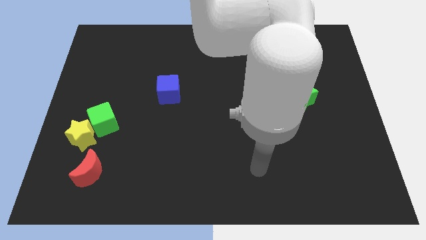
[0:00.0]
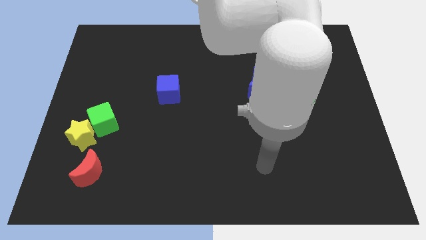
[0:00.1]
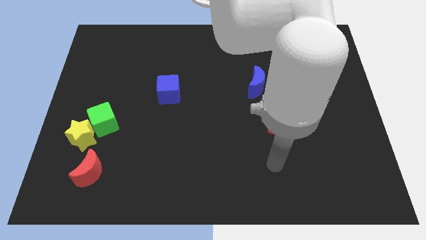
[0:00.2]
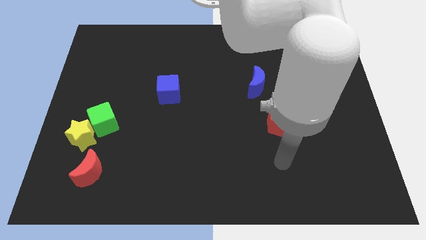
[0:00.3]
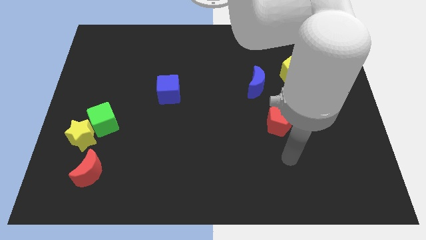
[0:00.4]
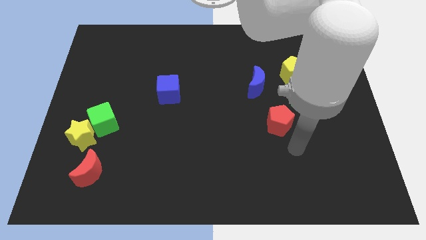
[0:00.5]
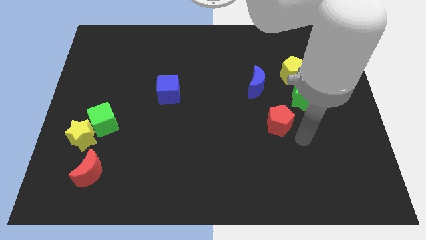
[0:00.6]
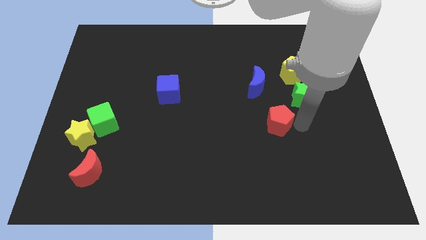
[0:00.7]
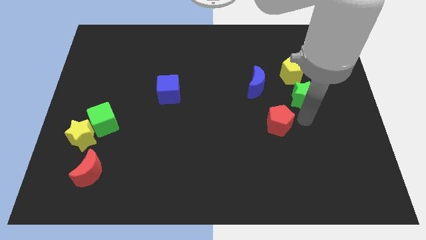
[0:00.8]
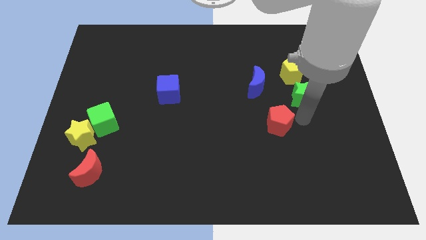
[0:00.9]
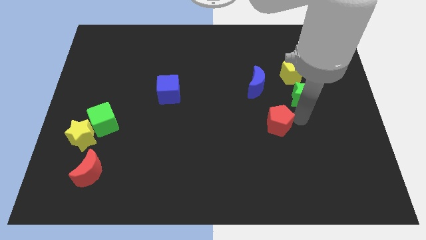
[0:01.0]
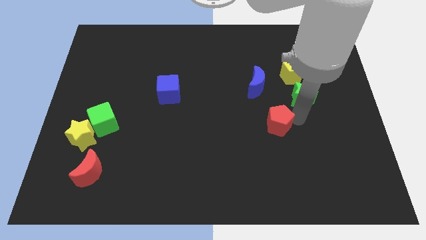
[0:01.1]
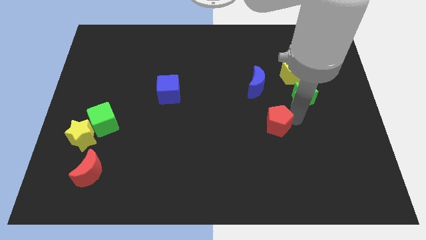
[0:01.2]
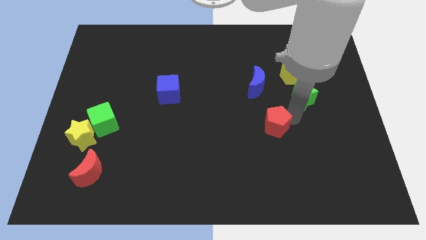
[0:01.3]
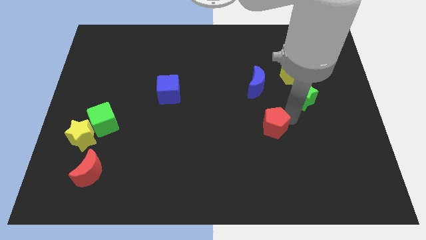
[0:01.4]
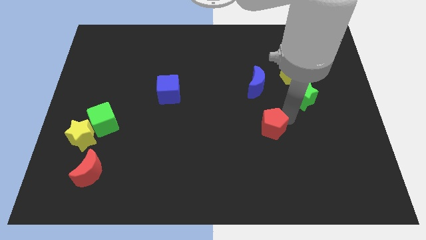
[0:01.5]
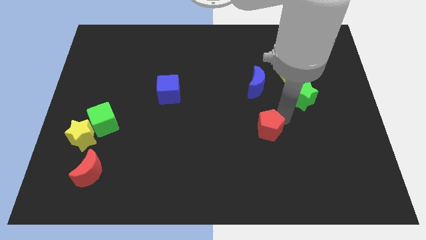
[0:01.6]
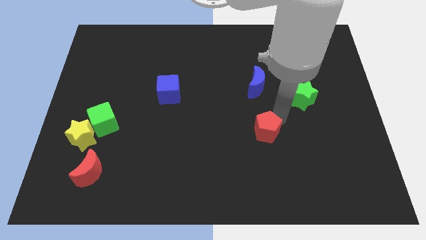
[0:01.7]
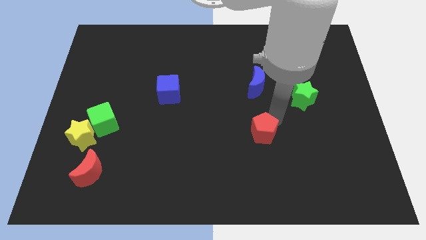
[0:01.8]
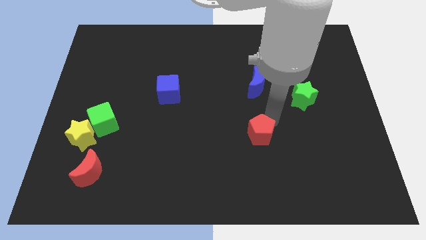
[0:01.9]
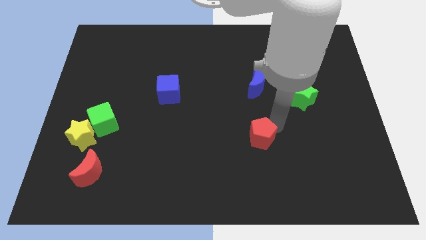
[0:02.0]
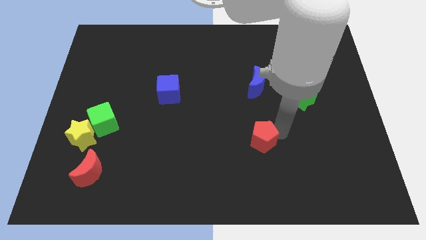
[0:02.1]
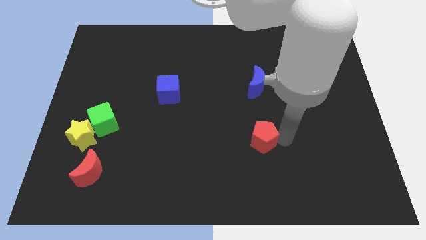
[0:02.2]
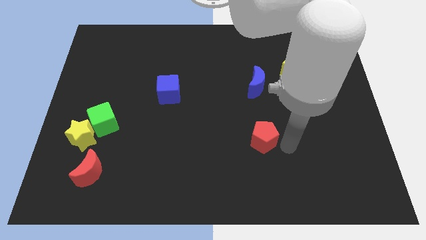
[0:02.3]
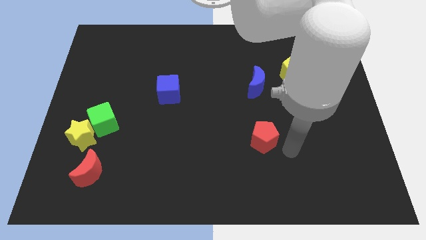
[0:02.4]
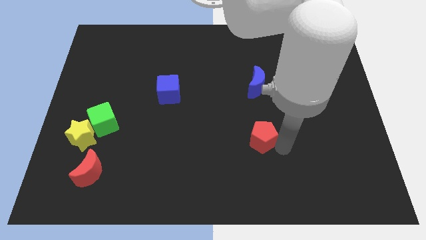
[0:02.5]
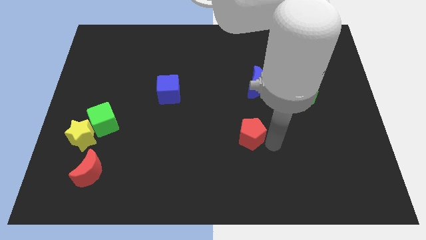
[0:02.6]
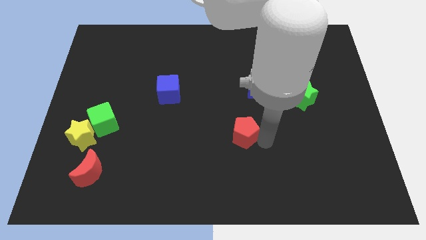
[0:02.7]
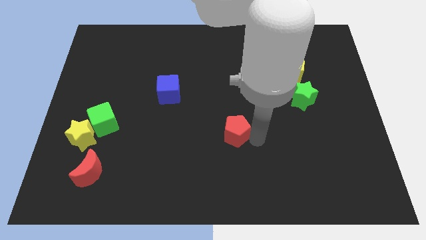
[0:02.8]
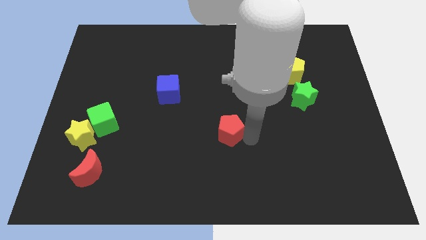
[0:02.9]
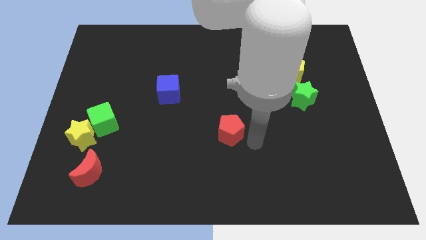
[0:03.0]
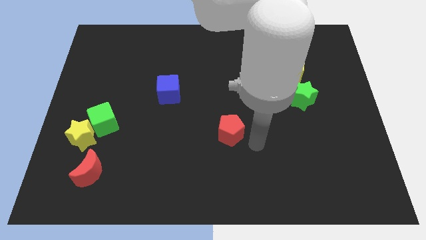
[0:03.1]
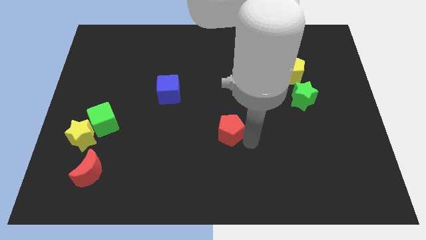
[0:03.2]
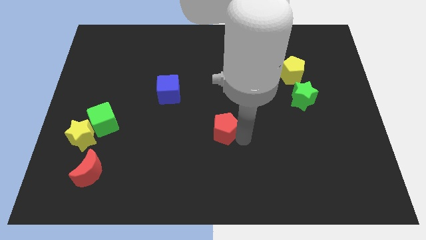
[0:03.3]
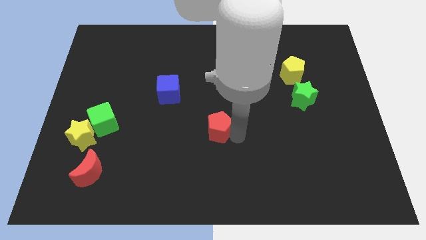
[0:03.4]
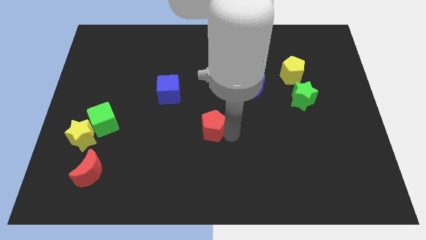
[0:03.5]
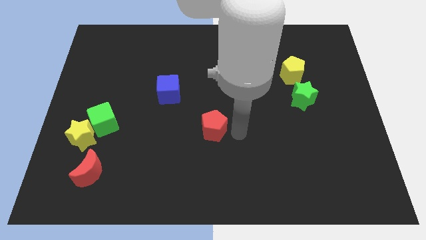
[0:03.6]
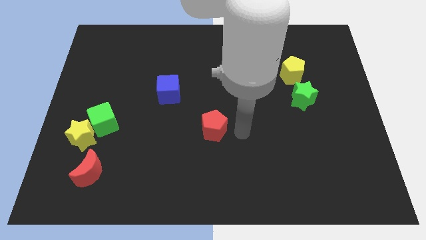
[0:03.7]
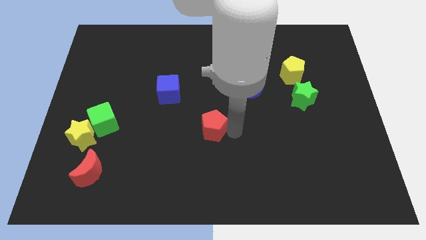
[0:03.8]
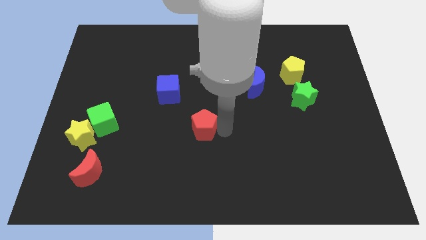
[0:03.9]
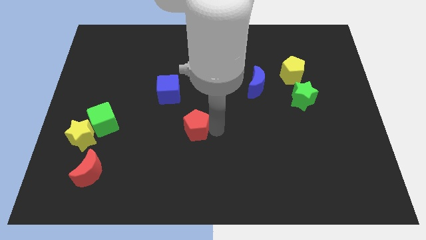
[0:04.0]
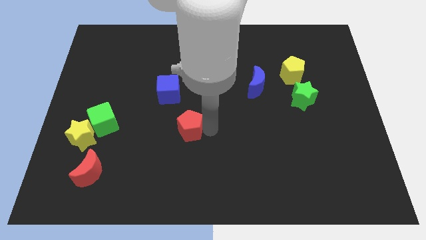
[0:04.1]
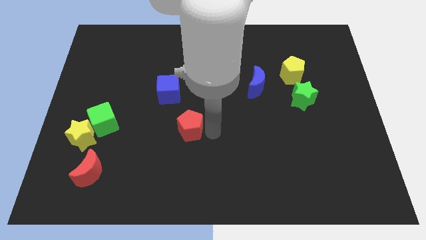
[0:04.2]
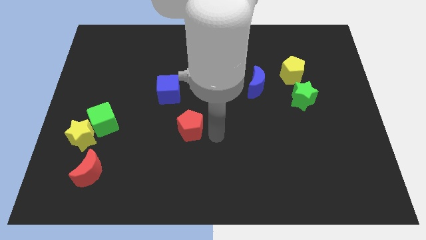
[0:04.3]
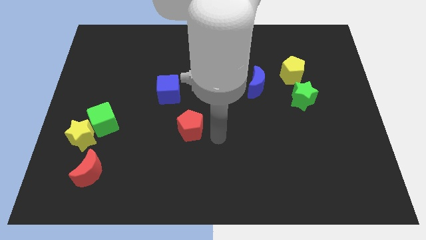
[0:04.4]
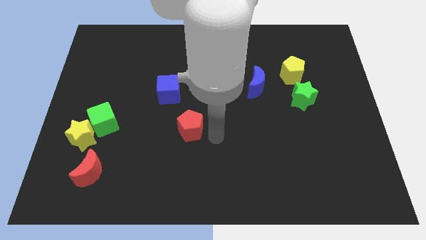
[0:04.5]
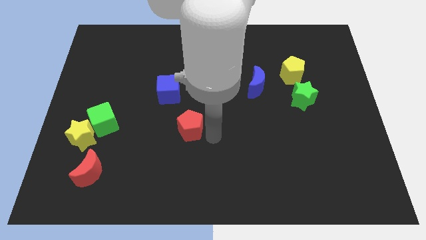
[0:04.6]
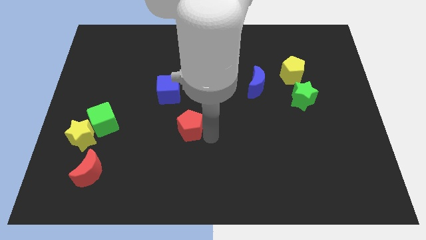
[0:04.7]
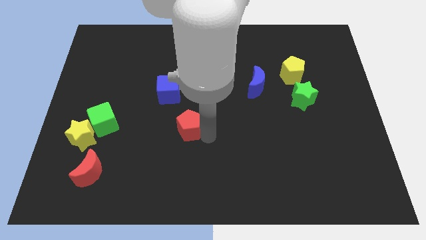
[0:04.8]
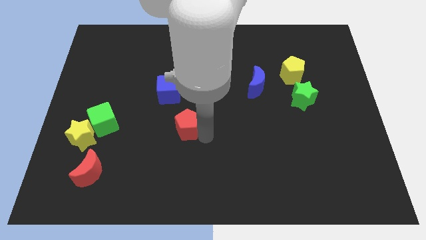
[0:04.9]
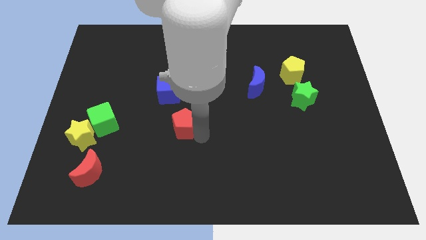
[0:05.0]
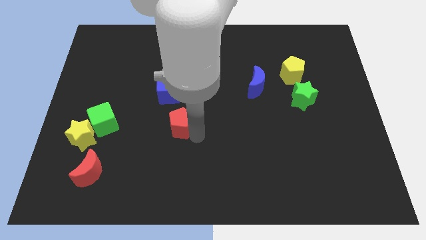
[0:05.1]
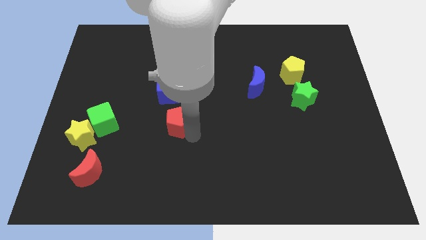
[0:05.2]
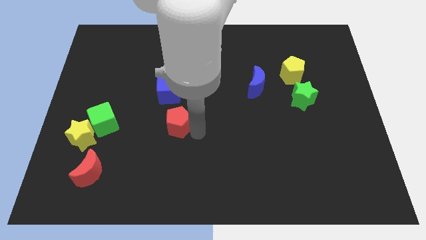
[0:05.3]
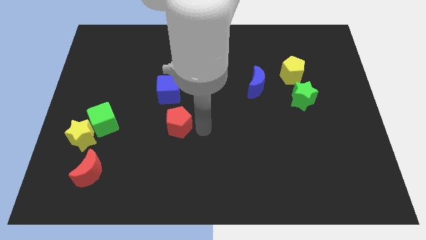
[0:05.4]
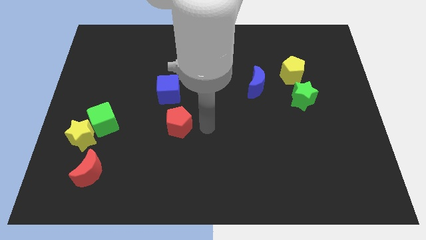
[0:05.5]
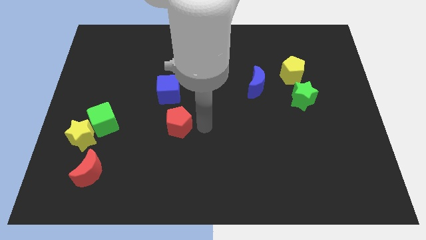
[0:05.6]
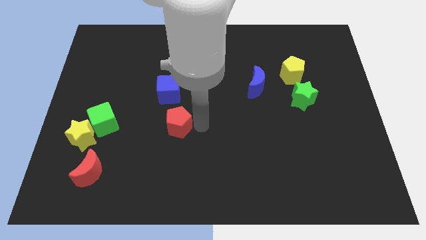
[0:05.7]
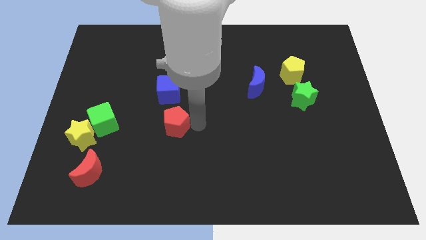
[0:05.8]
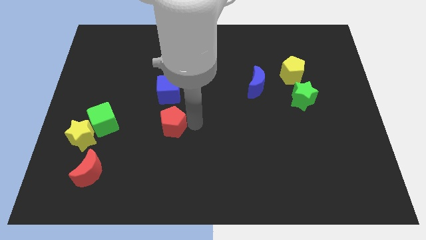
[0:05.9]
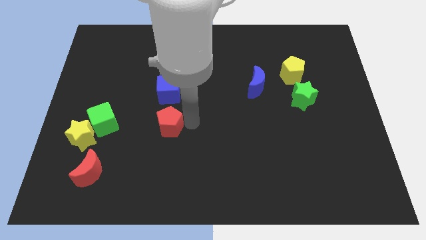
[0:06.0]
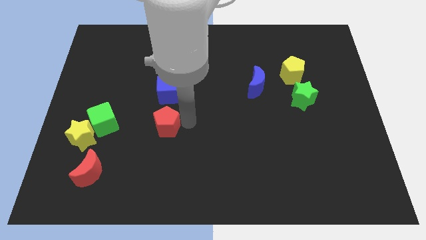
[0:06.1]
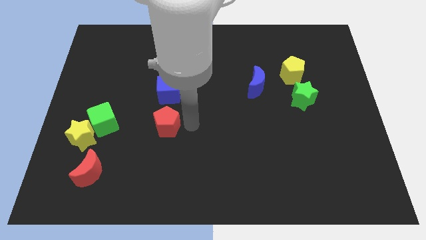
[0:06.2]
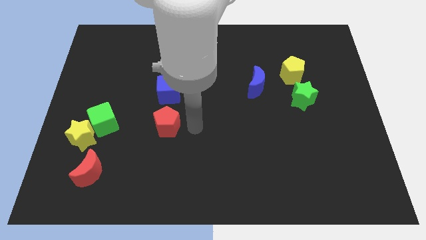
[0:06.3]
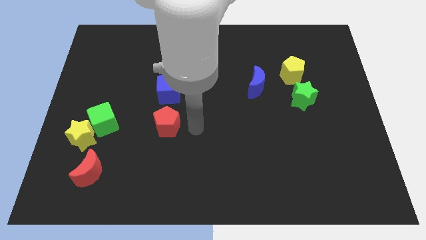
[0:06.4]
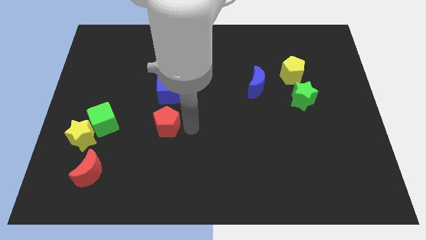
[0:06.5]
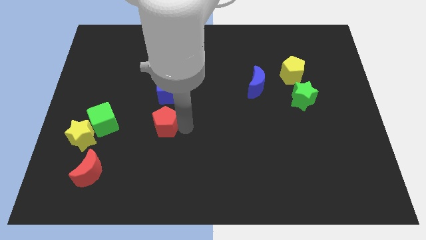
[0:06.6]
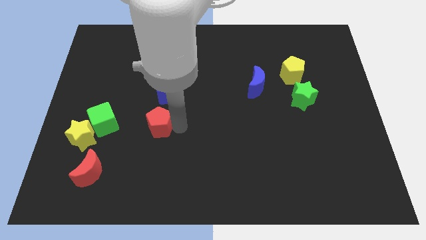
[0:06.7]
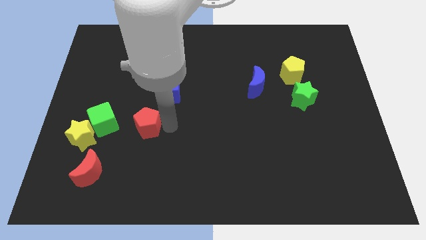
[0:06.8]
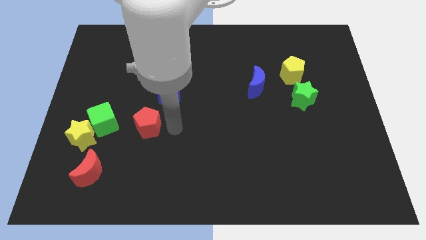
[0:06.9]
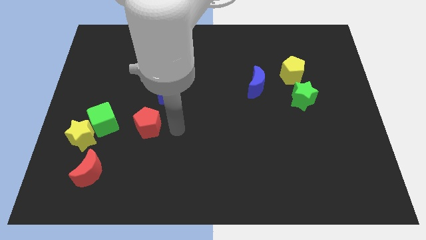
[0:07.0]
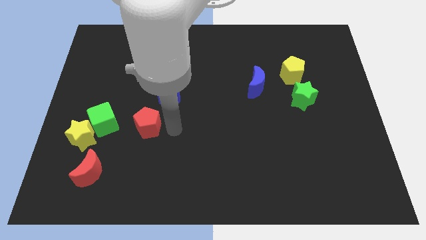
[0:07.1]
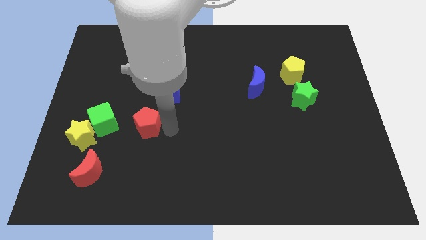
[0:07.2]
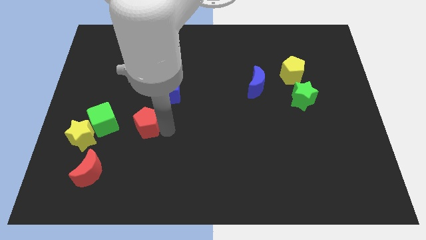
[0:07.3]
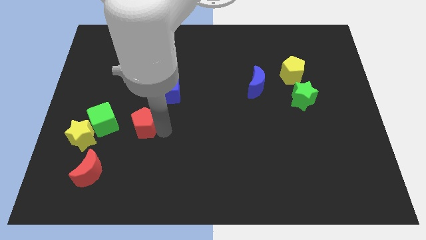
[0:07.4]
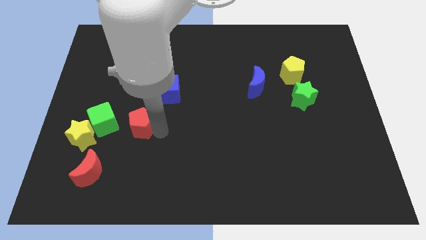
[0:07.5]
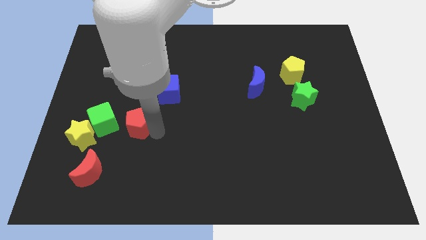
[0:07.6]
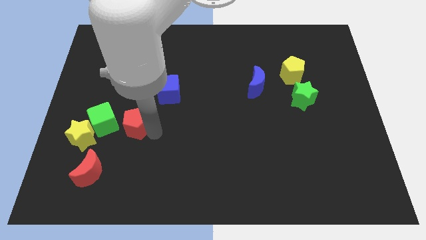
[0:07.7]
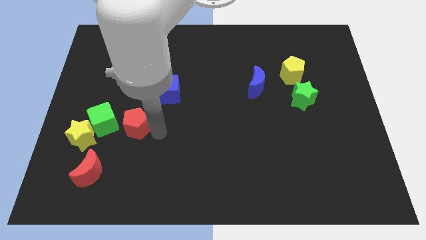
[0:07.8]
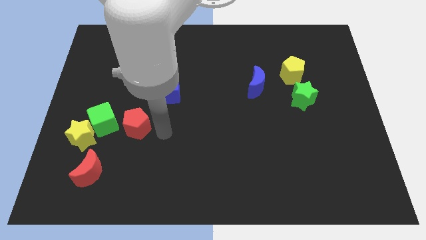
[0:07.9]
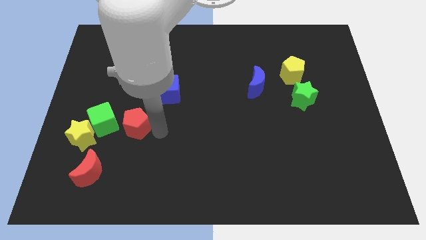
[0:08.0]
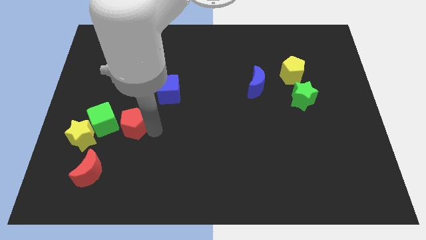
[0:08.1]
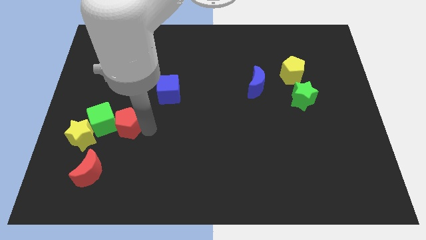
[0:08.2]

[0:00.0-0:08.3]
move the red pentagon towards the green cube
